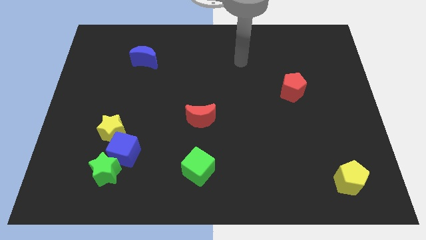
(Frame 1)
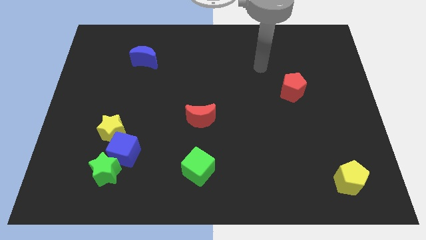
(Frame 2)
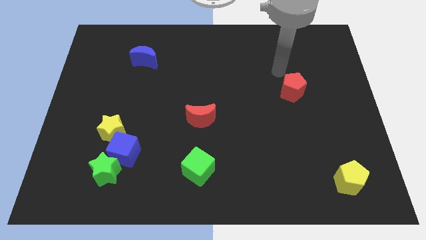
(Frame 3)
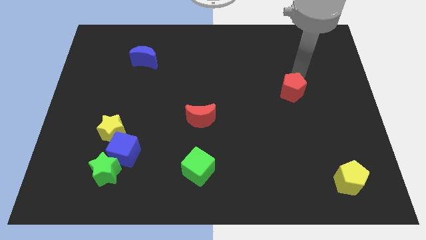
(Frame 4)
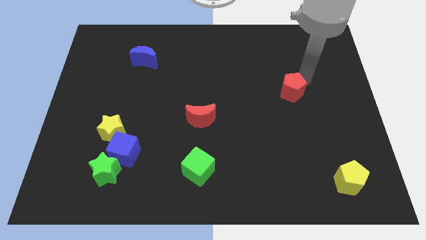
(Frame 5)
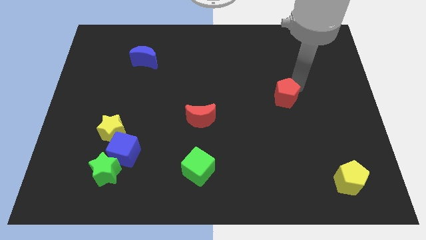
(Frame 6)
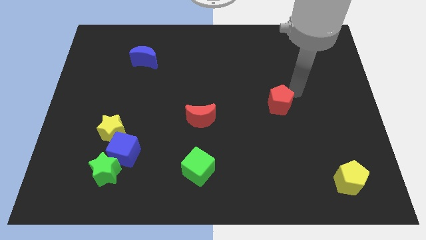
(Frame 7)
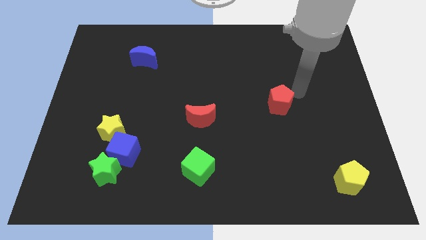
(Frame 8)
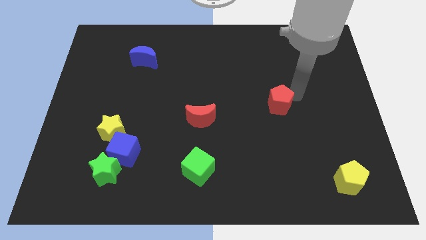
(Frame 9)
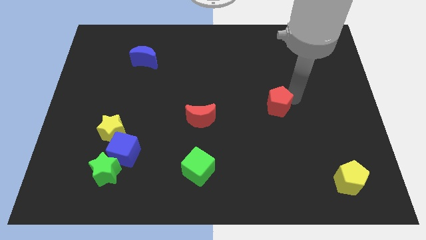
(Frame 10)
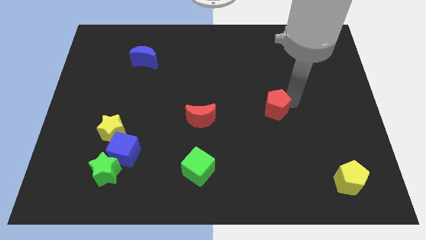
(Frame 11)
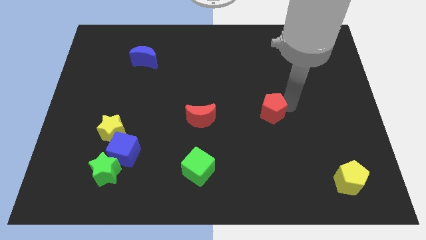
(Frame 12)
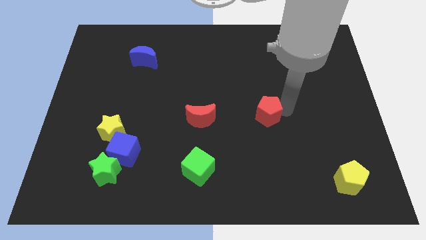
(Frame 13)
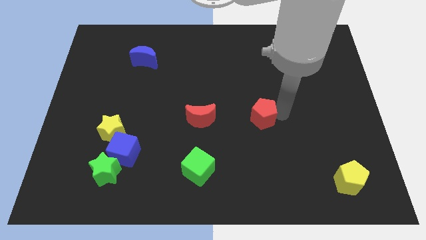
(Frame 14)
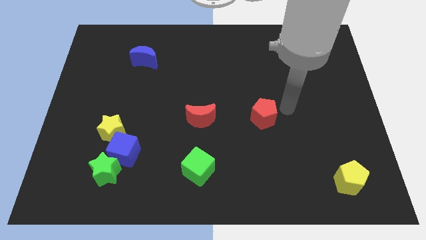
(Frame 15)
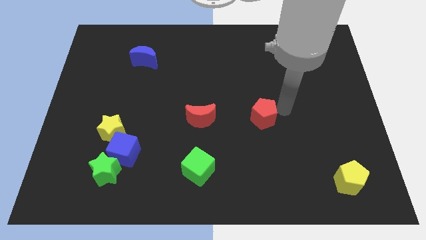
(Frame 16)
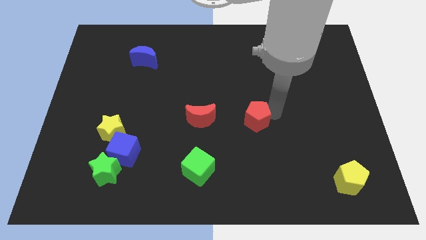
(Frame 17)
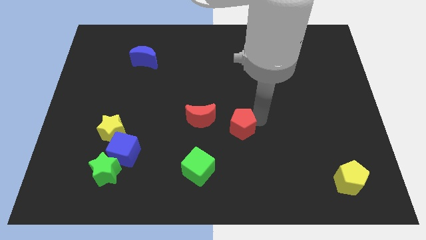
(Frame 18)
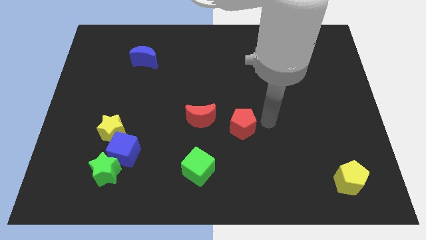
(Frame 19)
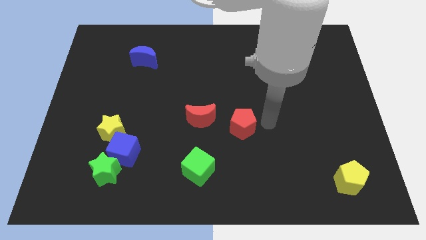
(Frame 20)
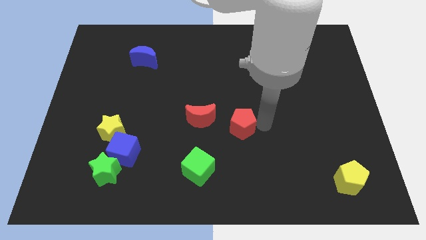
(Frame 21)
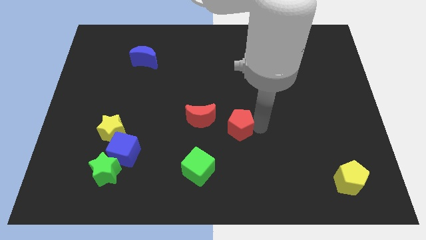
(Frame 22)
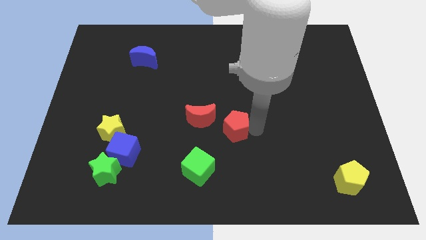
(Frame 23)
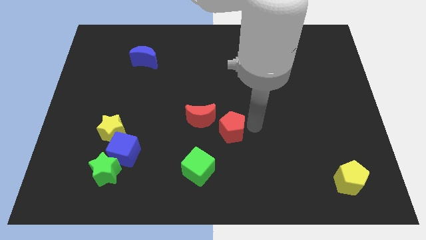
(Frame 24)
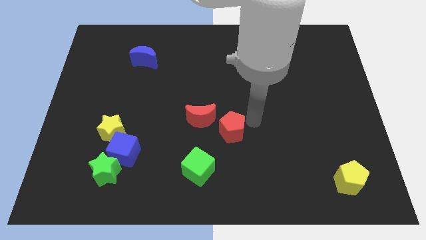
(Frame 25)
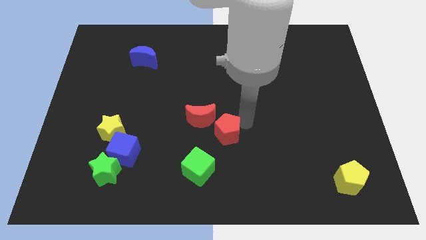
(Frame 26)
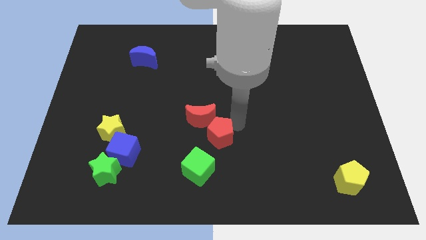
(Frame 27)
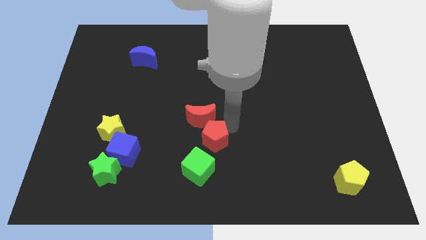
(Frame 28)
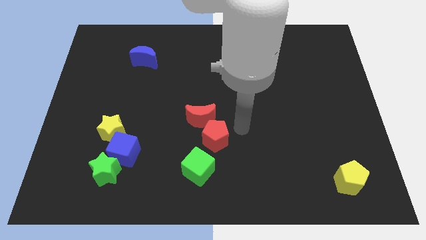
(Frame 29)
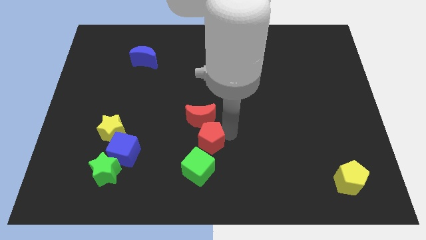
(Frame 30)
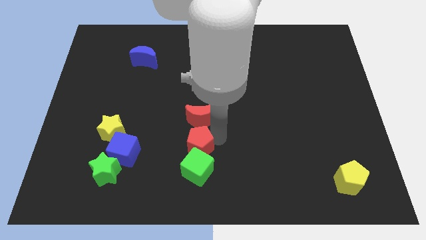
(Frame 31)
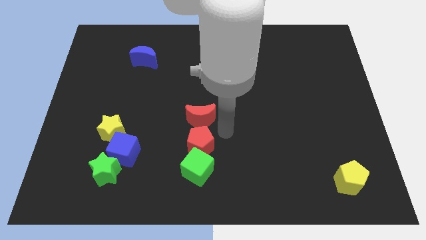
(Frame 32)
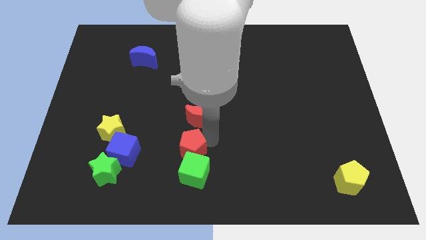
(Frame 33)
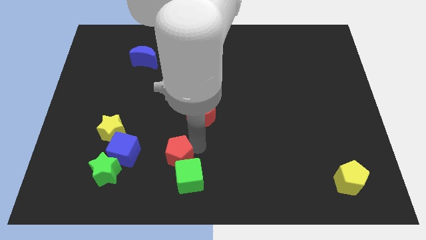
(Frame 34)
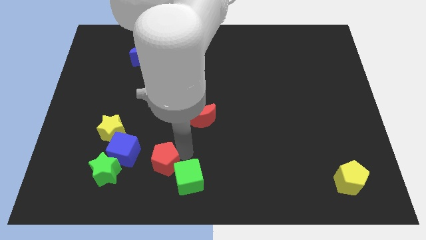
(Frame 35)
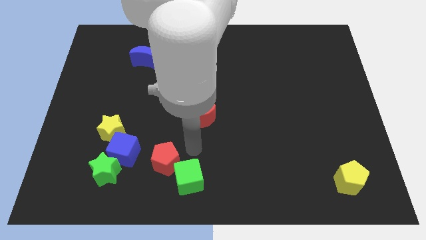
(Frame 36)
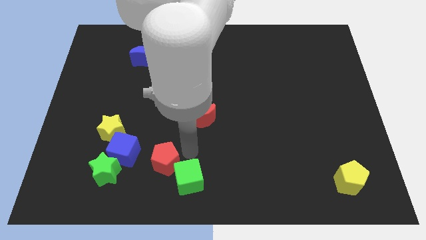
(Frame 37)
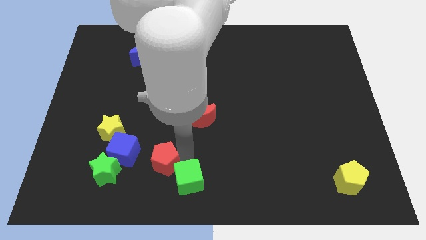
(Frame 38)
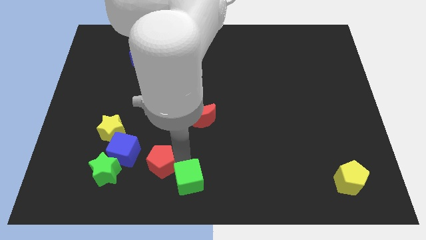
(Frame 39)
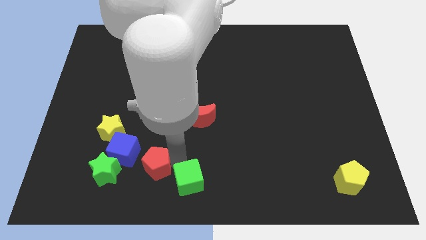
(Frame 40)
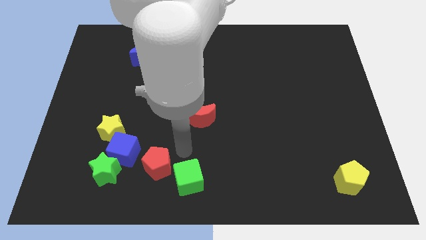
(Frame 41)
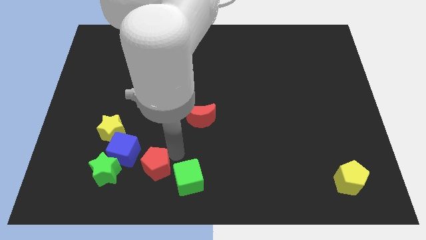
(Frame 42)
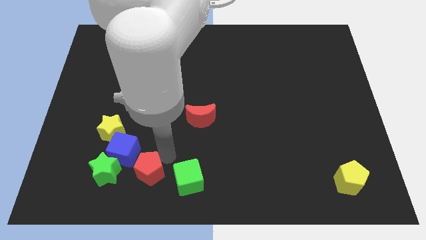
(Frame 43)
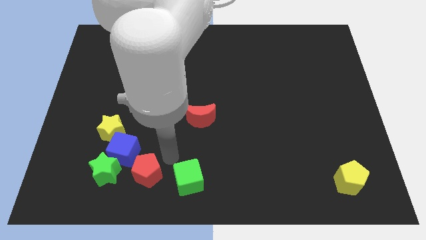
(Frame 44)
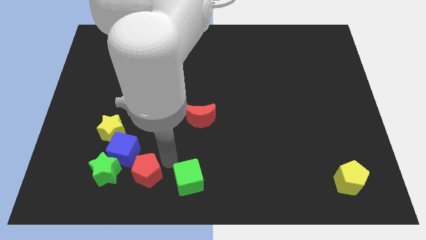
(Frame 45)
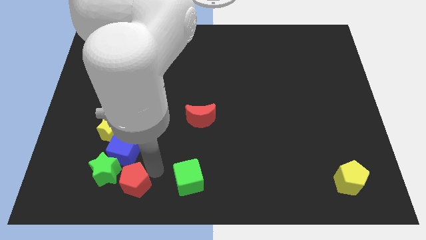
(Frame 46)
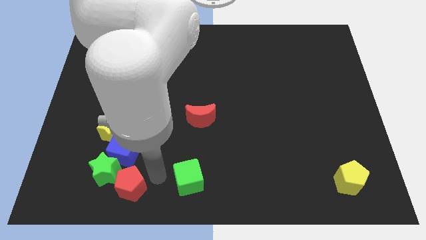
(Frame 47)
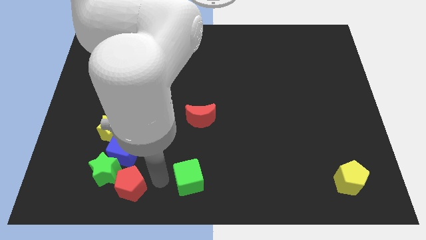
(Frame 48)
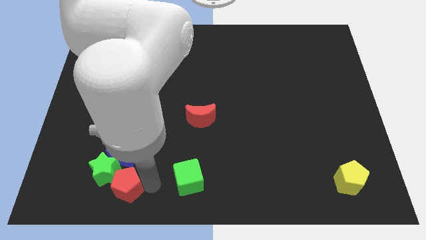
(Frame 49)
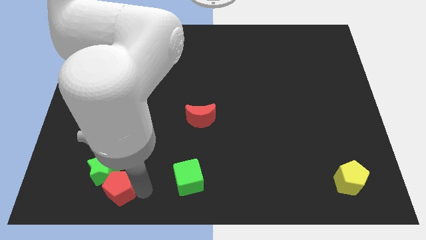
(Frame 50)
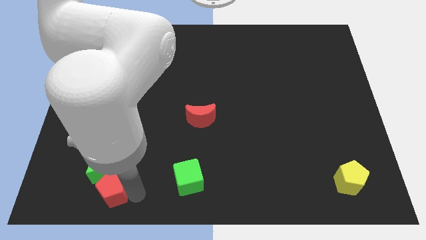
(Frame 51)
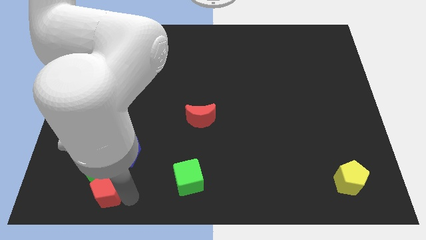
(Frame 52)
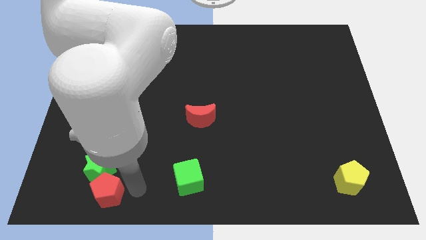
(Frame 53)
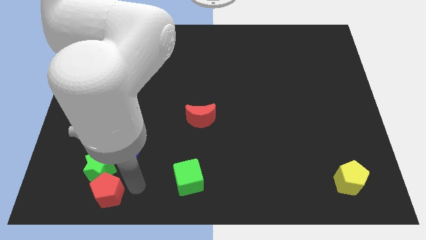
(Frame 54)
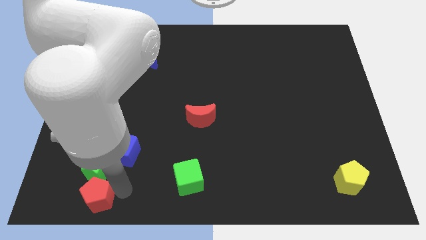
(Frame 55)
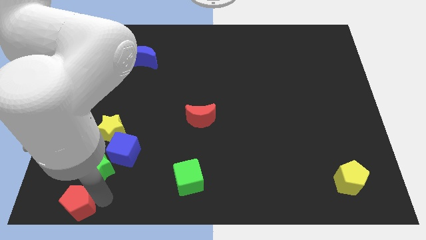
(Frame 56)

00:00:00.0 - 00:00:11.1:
put the red pentagon to the lower left corner

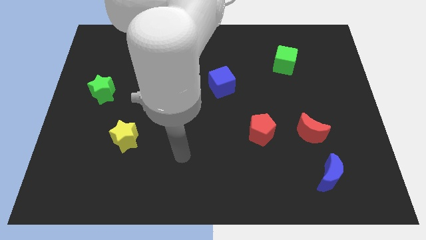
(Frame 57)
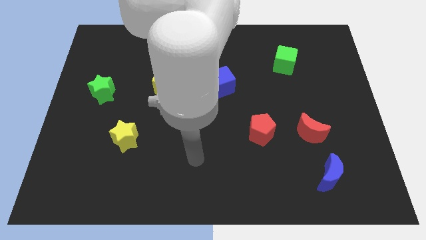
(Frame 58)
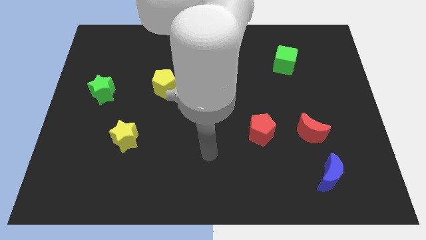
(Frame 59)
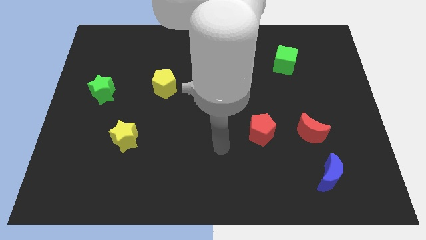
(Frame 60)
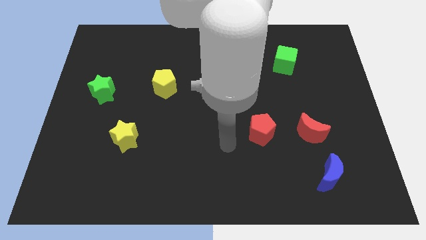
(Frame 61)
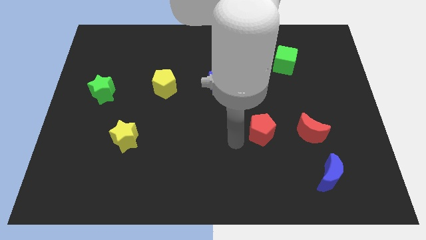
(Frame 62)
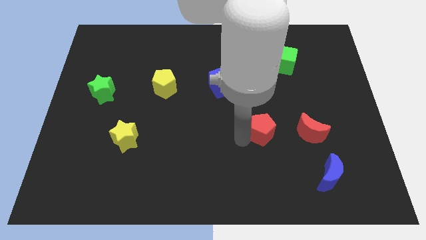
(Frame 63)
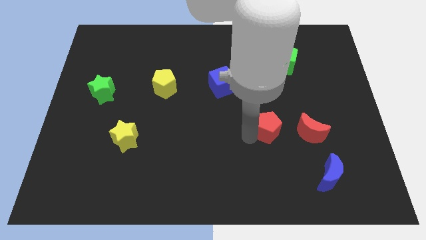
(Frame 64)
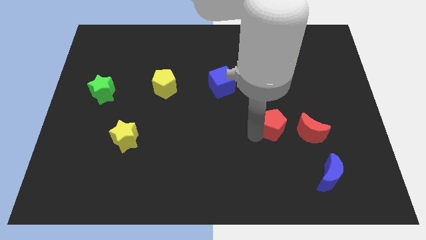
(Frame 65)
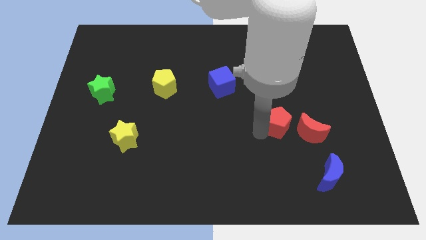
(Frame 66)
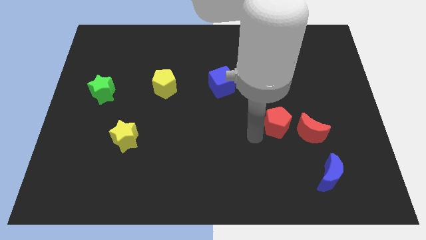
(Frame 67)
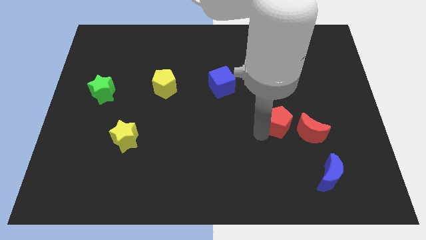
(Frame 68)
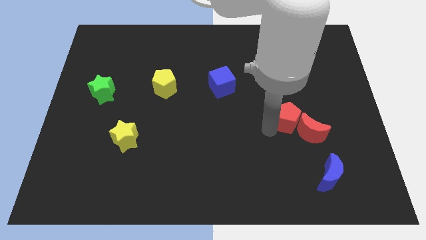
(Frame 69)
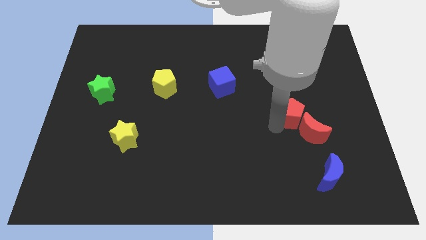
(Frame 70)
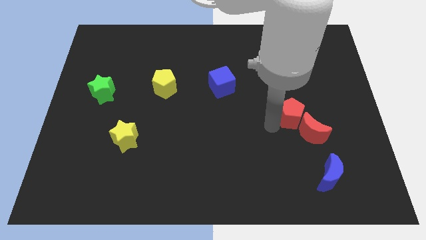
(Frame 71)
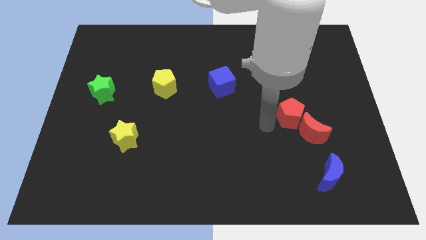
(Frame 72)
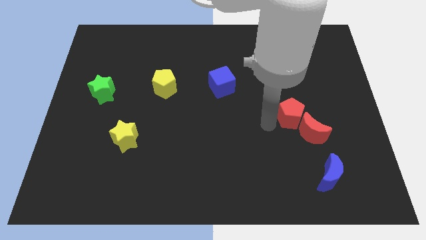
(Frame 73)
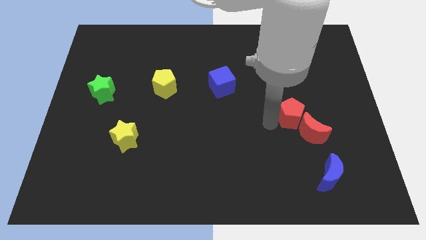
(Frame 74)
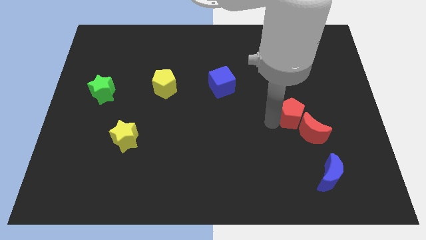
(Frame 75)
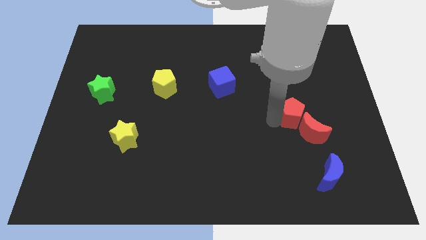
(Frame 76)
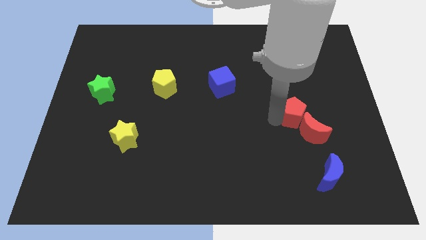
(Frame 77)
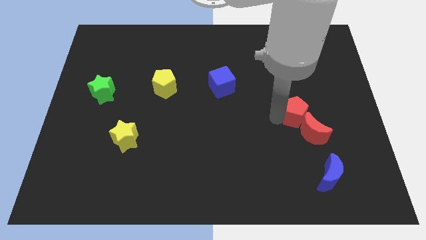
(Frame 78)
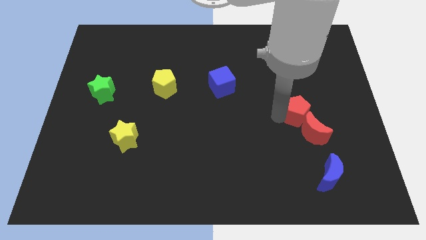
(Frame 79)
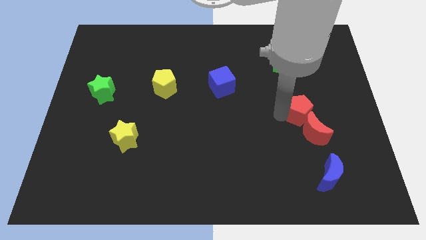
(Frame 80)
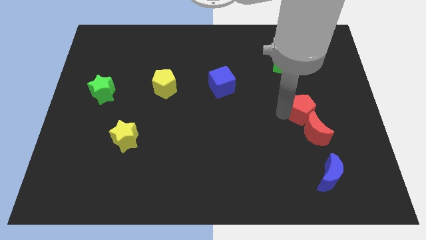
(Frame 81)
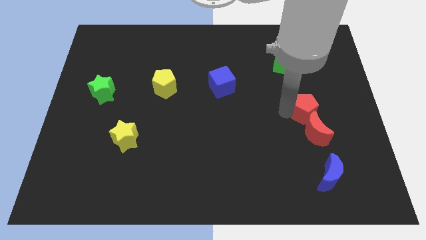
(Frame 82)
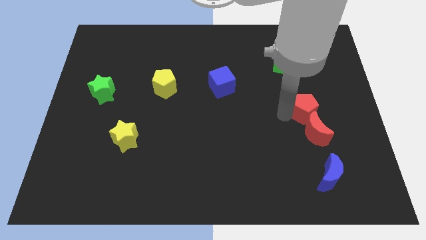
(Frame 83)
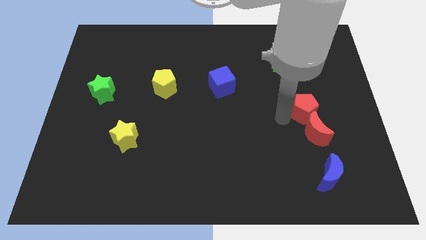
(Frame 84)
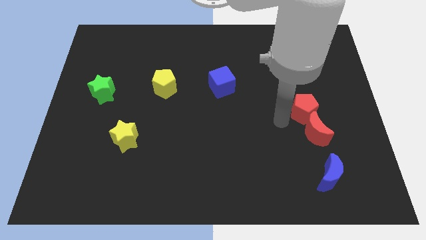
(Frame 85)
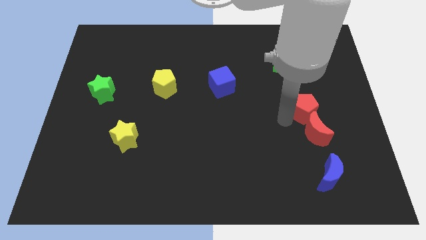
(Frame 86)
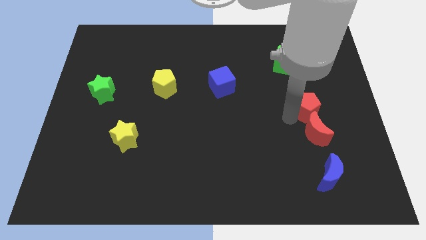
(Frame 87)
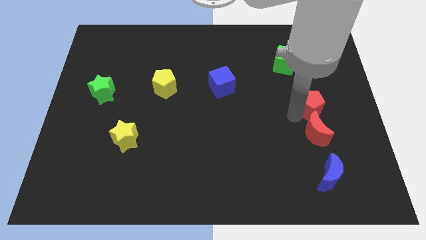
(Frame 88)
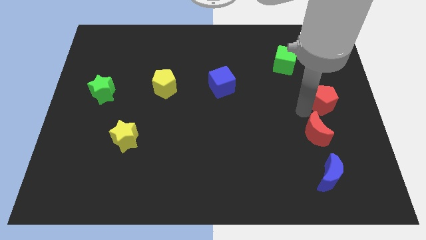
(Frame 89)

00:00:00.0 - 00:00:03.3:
push the red pentagon to the right side
